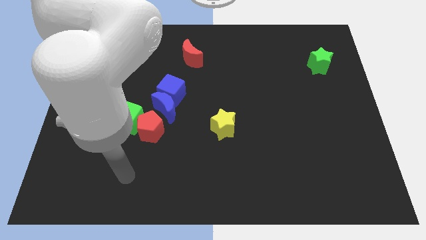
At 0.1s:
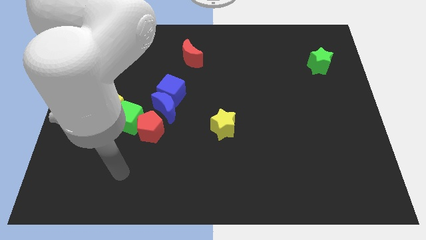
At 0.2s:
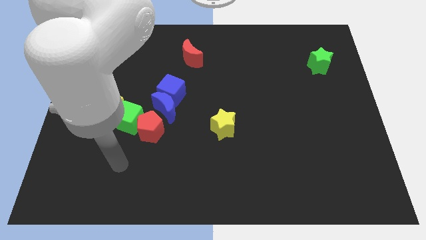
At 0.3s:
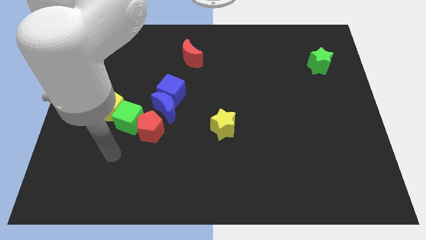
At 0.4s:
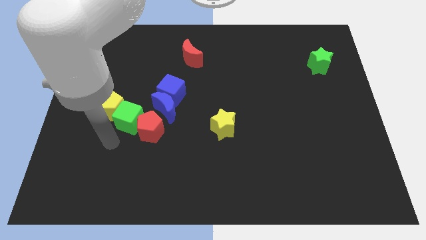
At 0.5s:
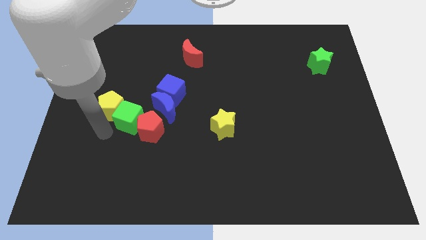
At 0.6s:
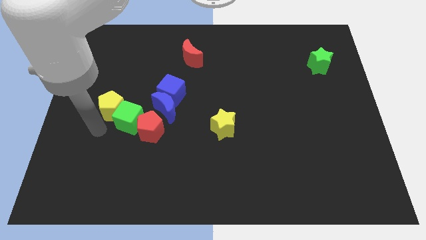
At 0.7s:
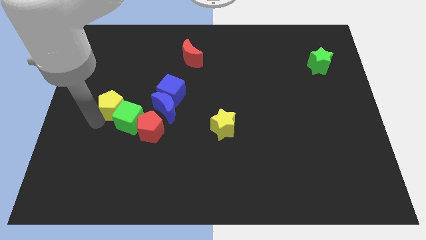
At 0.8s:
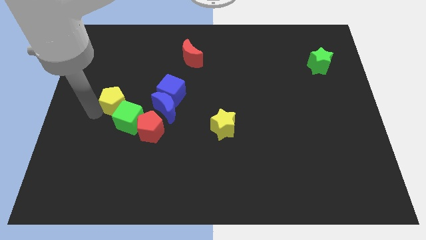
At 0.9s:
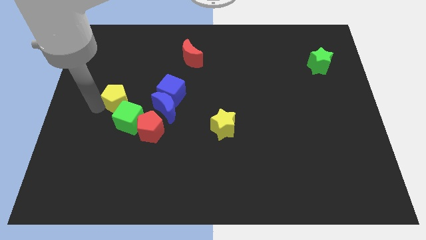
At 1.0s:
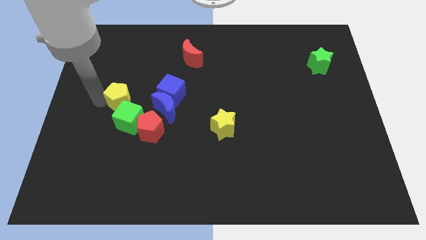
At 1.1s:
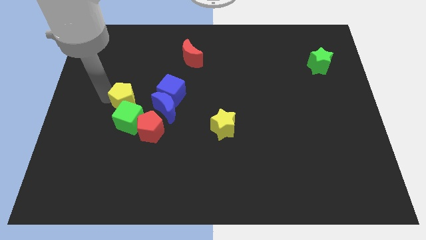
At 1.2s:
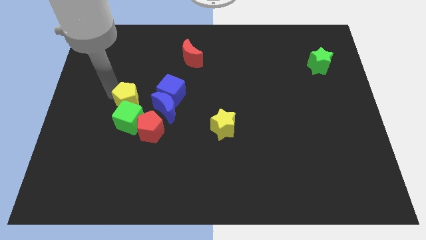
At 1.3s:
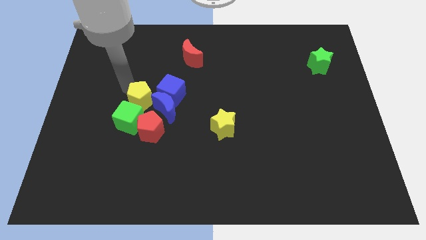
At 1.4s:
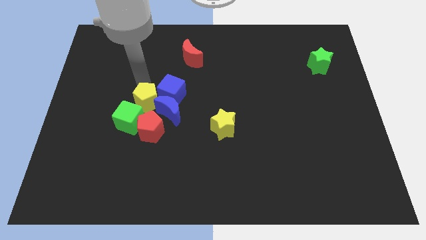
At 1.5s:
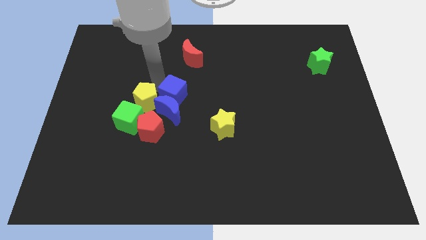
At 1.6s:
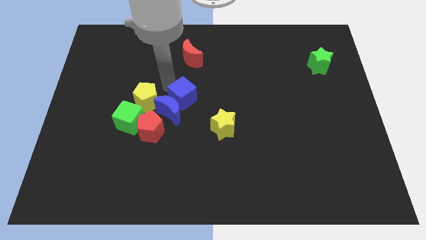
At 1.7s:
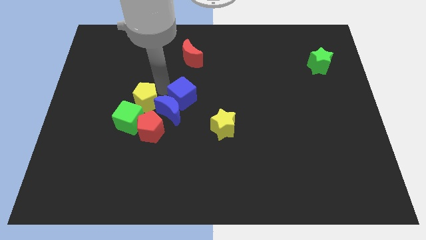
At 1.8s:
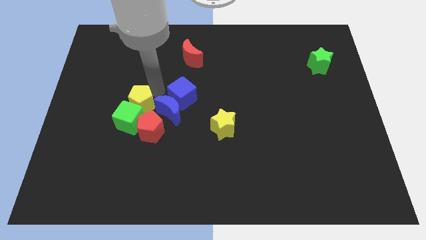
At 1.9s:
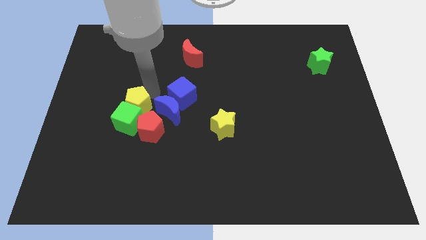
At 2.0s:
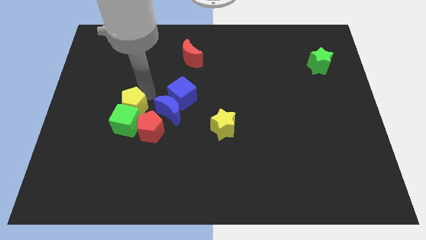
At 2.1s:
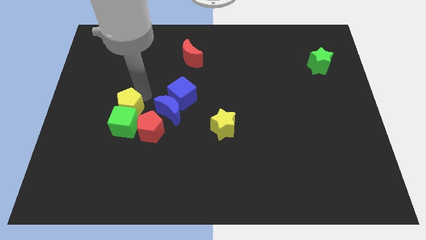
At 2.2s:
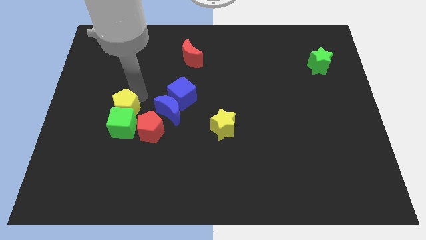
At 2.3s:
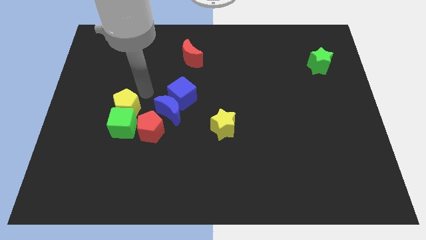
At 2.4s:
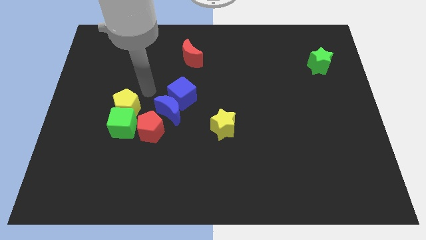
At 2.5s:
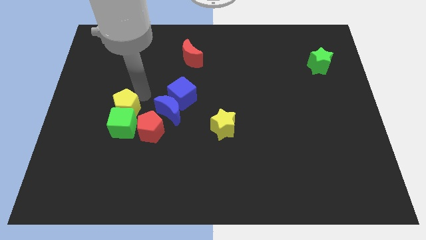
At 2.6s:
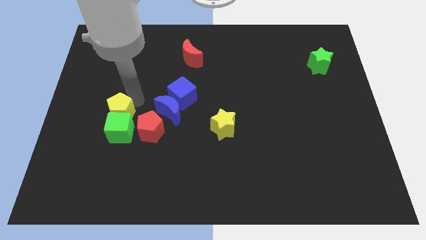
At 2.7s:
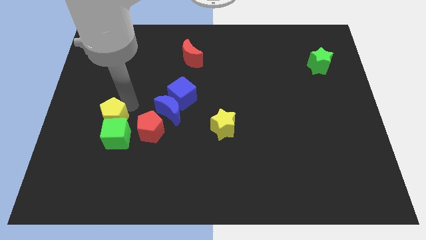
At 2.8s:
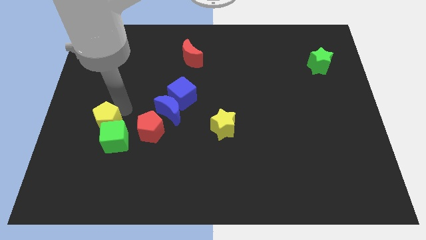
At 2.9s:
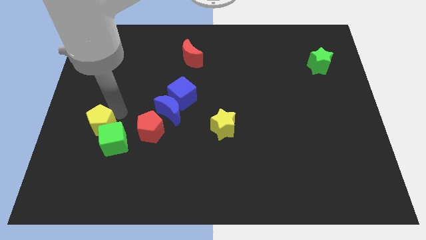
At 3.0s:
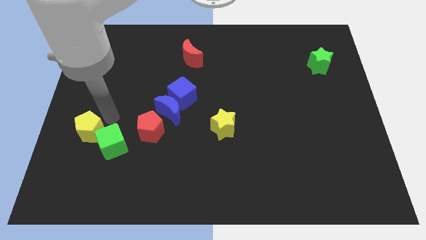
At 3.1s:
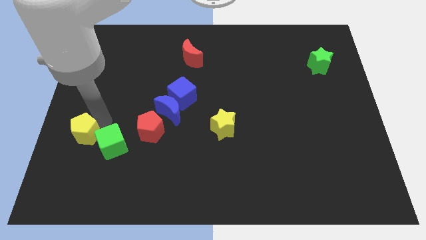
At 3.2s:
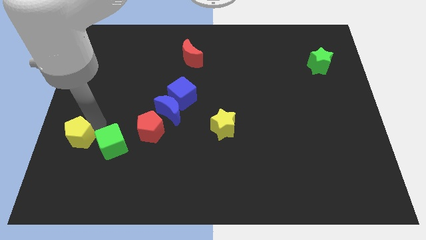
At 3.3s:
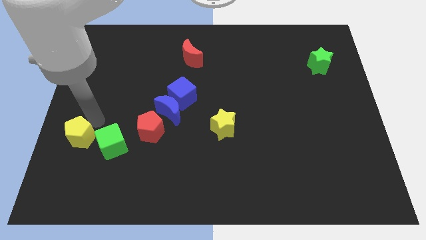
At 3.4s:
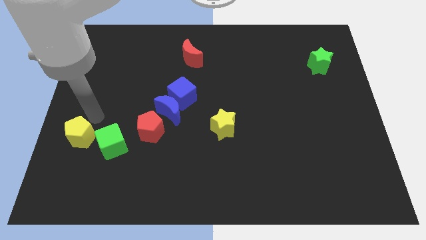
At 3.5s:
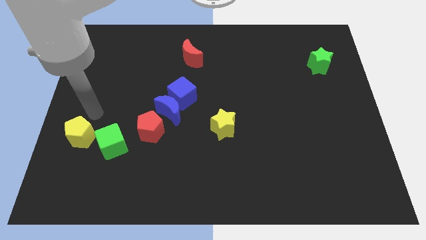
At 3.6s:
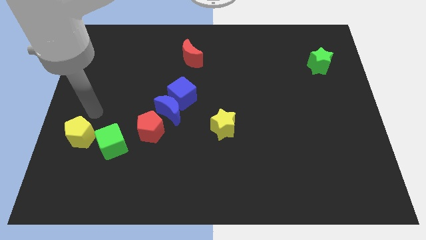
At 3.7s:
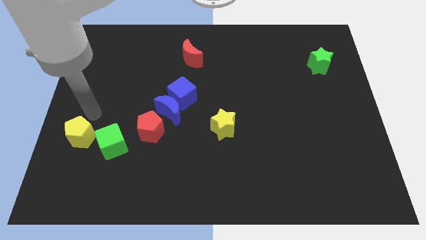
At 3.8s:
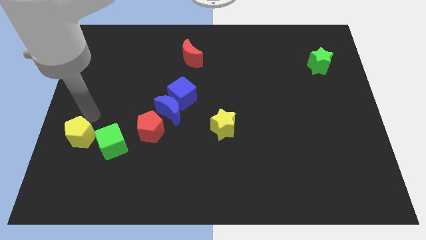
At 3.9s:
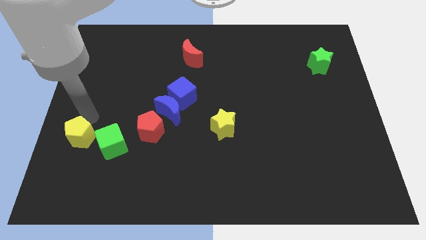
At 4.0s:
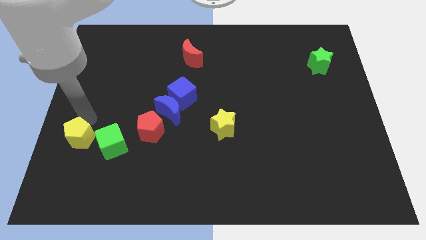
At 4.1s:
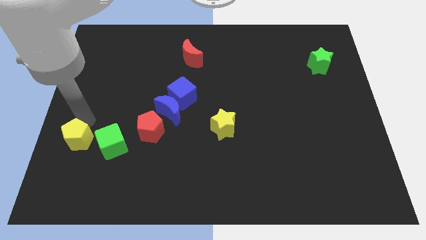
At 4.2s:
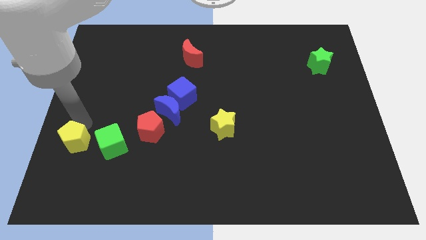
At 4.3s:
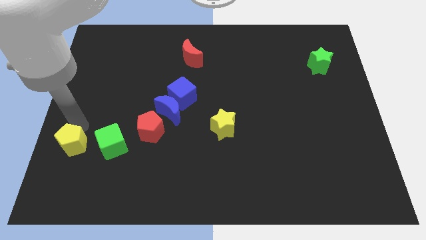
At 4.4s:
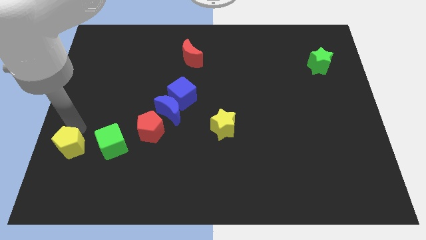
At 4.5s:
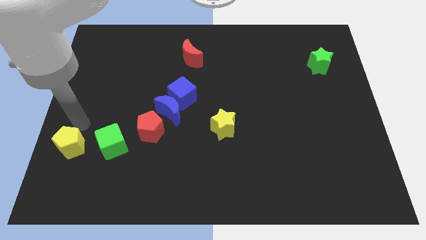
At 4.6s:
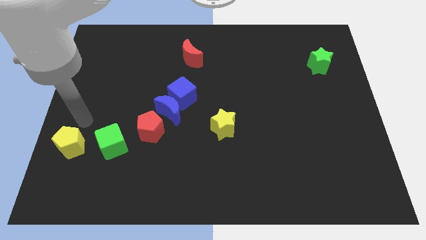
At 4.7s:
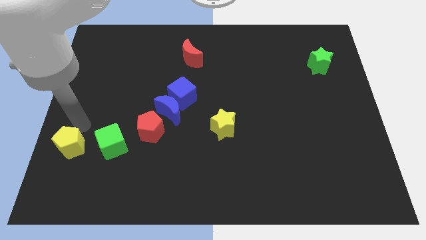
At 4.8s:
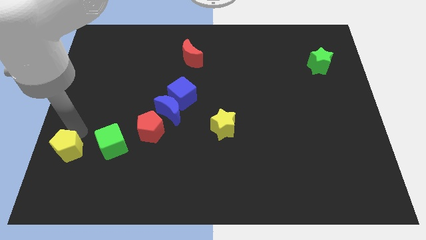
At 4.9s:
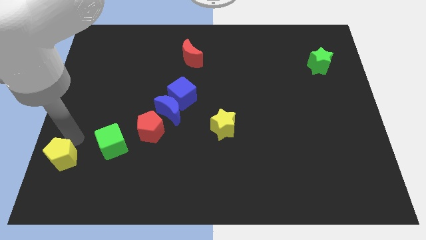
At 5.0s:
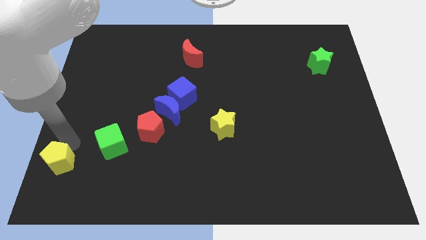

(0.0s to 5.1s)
push the yellow pentagon to the bottom left of the board

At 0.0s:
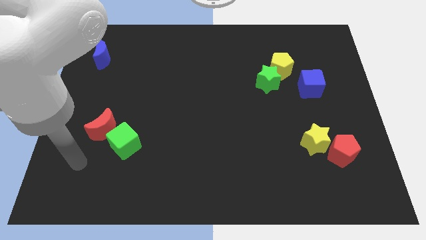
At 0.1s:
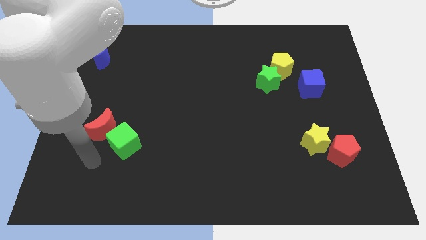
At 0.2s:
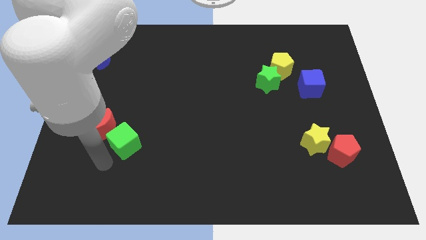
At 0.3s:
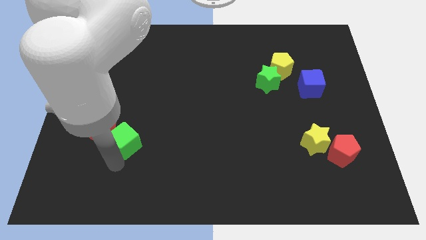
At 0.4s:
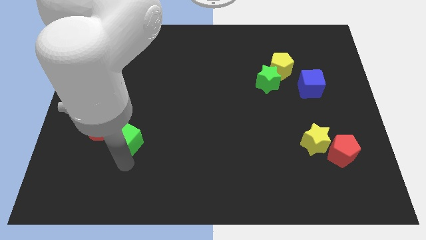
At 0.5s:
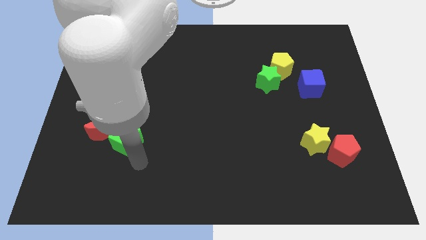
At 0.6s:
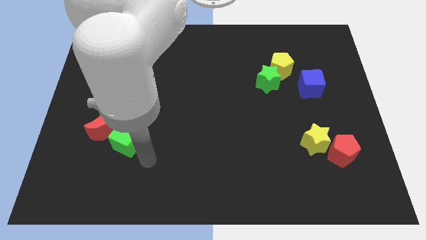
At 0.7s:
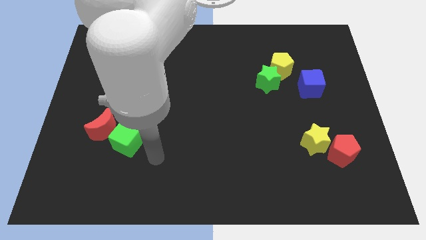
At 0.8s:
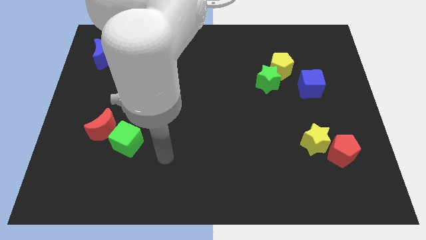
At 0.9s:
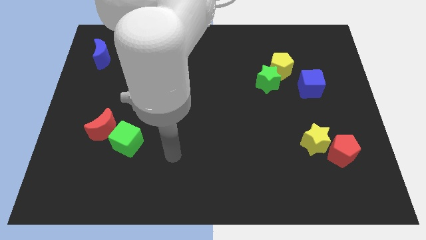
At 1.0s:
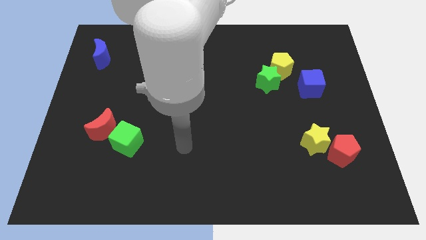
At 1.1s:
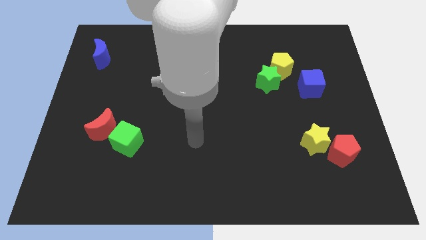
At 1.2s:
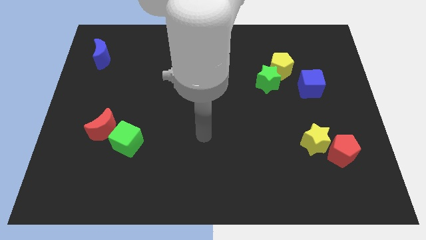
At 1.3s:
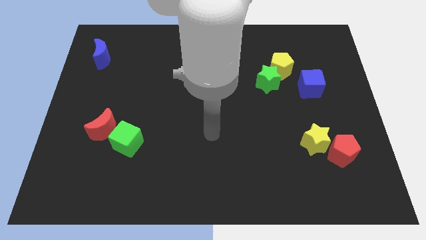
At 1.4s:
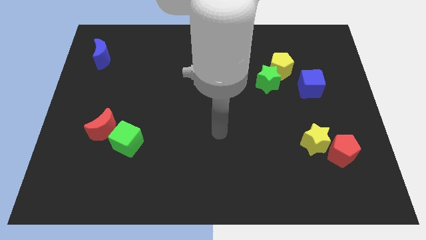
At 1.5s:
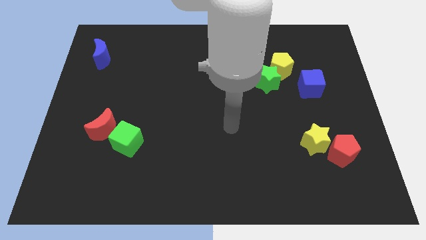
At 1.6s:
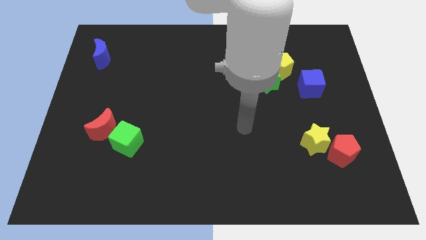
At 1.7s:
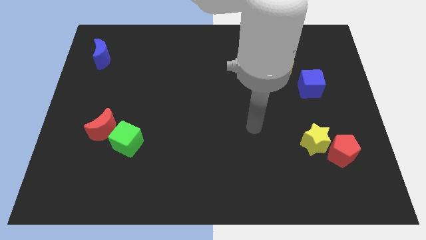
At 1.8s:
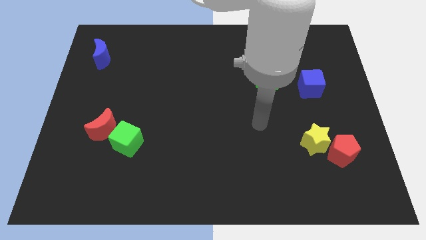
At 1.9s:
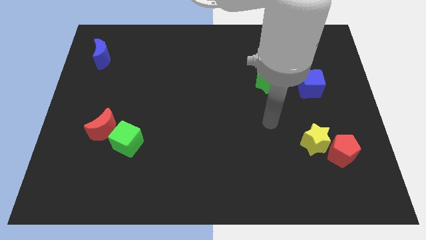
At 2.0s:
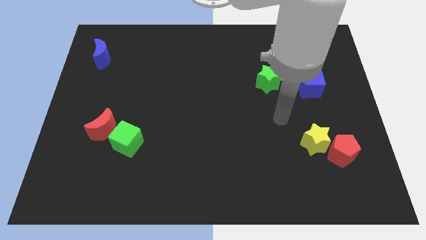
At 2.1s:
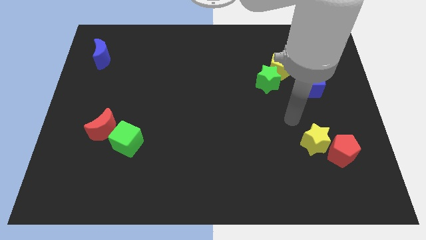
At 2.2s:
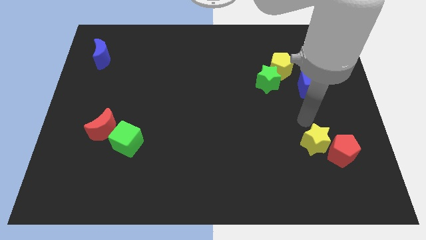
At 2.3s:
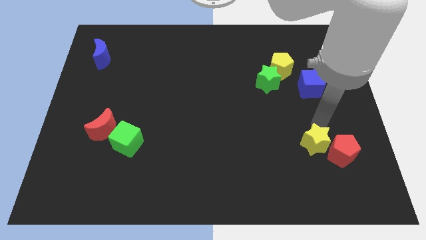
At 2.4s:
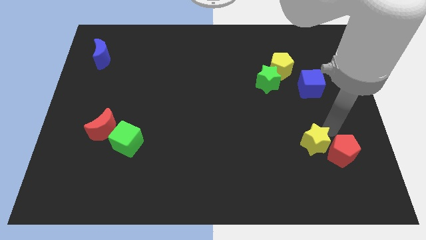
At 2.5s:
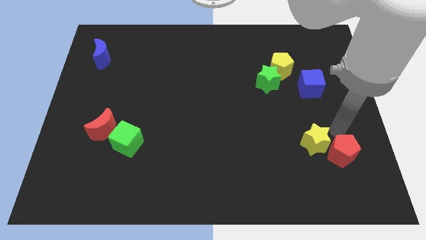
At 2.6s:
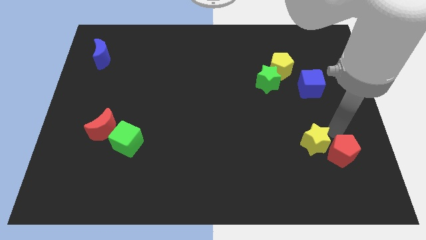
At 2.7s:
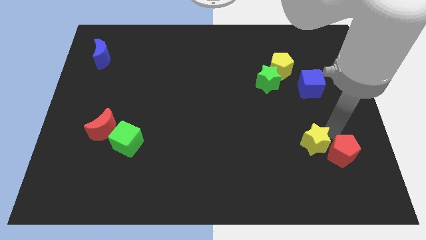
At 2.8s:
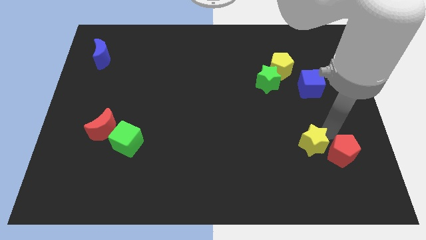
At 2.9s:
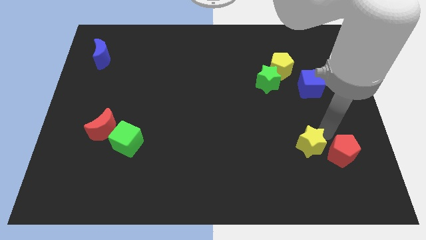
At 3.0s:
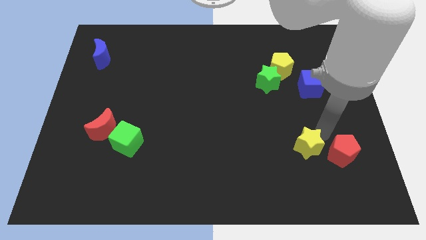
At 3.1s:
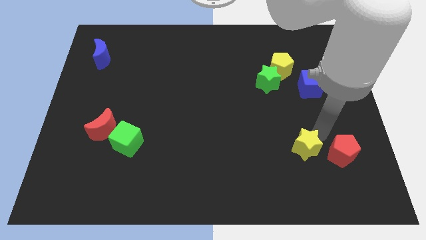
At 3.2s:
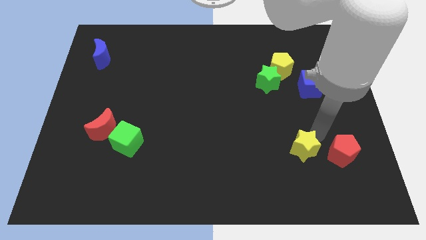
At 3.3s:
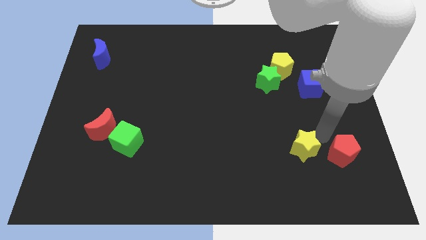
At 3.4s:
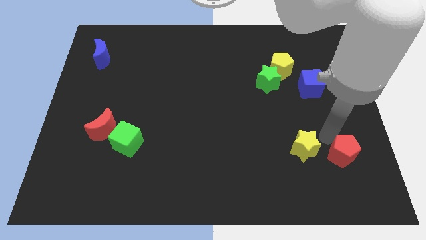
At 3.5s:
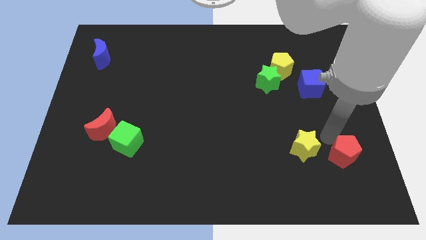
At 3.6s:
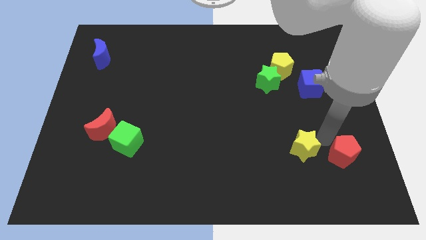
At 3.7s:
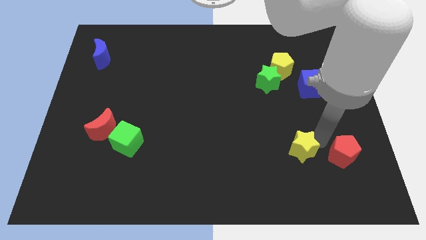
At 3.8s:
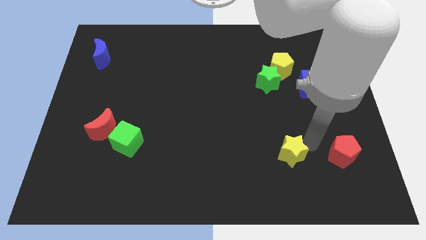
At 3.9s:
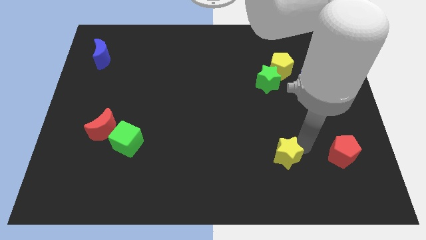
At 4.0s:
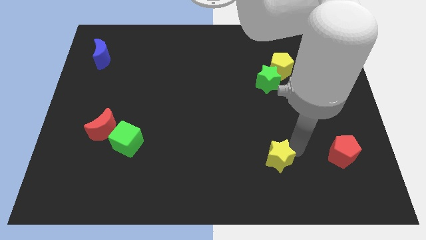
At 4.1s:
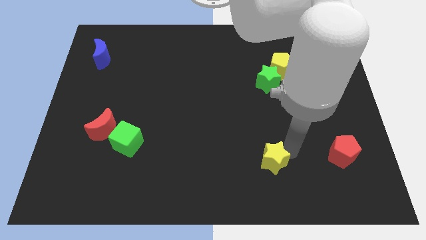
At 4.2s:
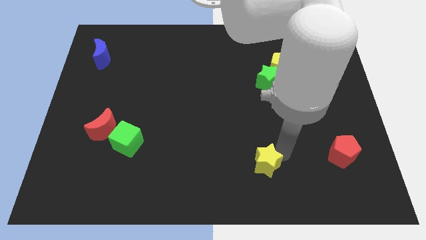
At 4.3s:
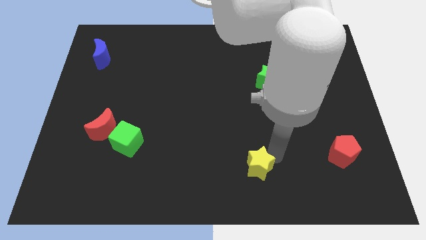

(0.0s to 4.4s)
put the yellow star to the bottom
